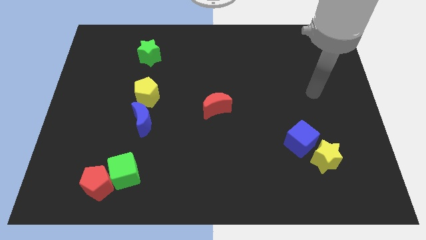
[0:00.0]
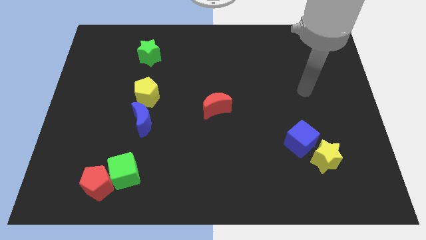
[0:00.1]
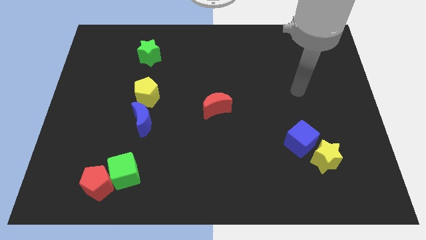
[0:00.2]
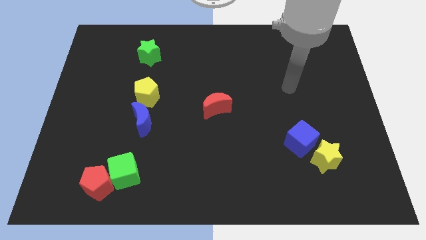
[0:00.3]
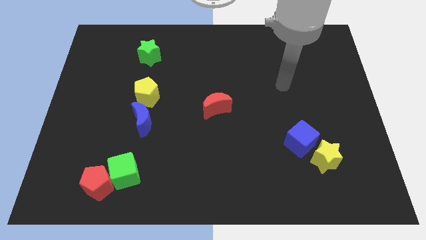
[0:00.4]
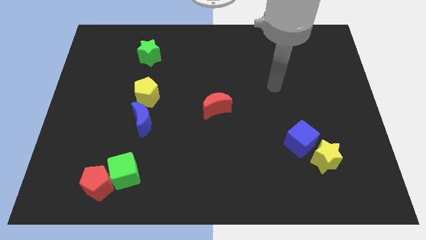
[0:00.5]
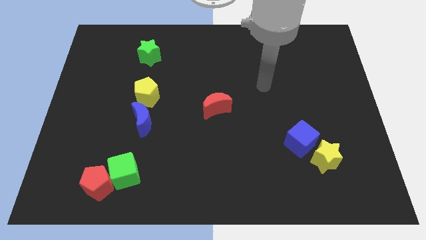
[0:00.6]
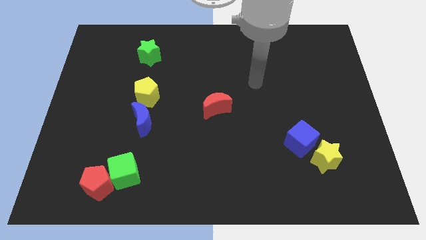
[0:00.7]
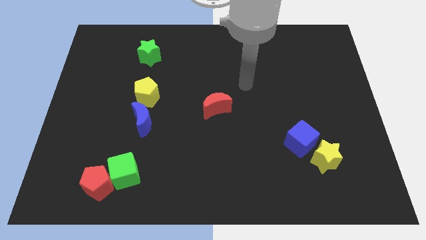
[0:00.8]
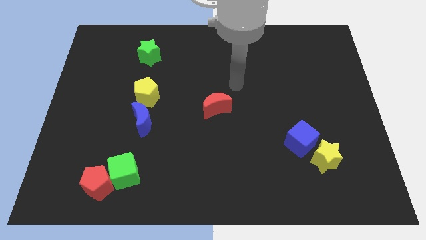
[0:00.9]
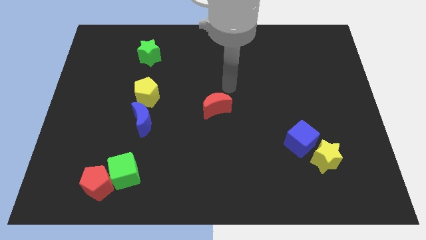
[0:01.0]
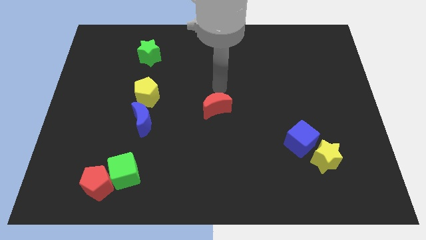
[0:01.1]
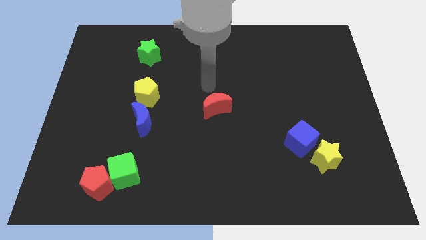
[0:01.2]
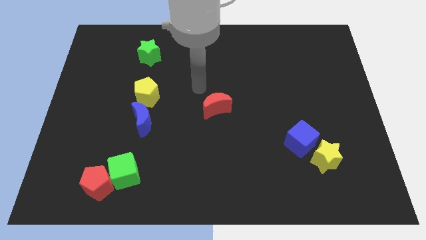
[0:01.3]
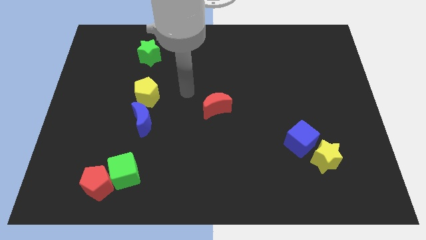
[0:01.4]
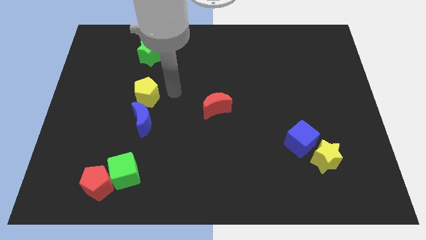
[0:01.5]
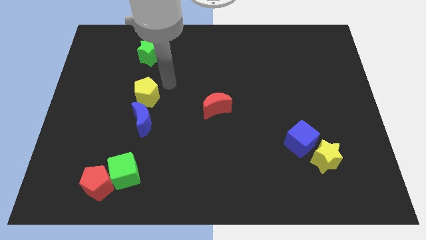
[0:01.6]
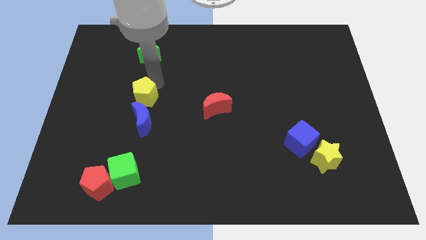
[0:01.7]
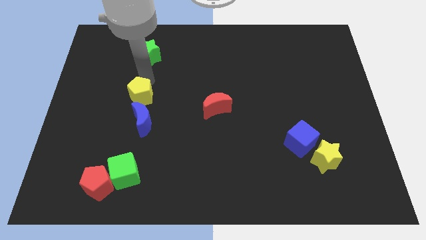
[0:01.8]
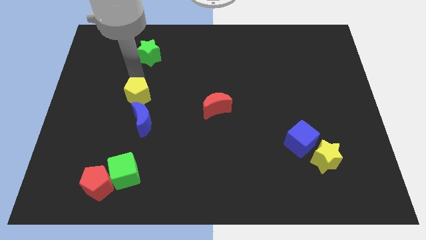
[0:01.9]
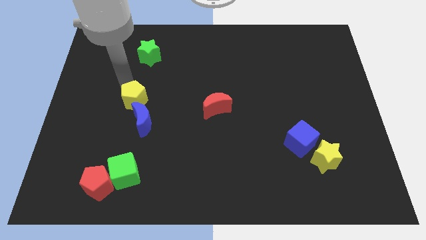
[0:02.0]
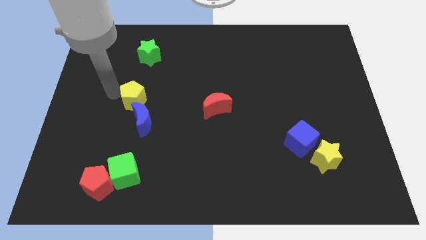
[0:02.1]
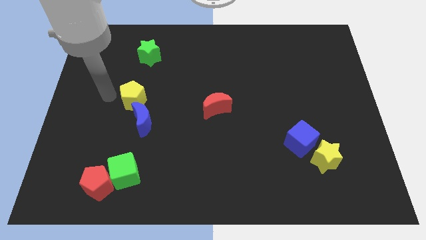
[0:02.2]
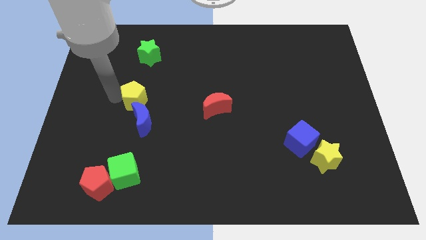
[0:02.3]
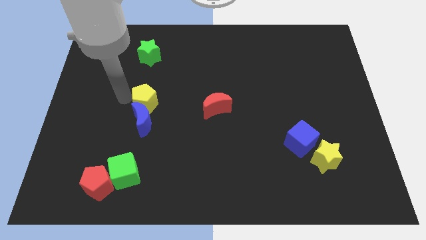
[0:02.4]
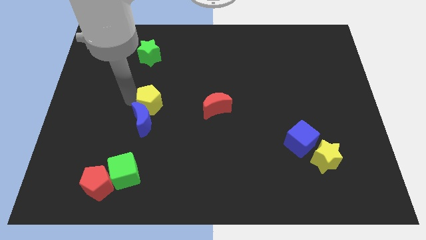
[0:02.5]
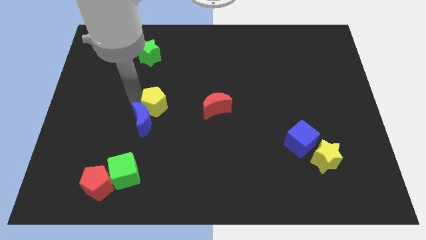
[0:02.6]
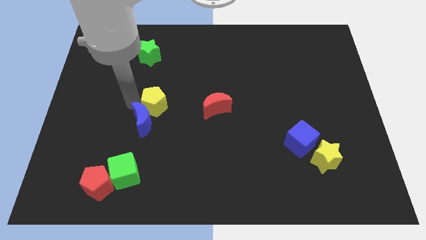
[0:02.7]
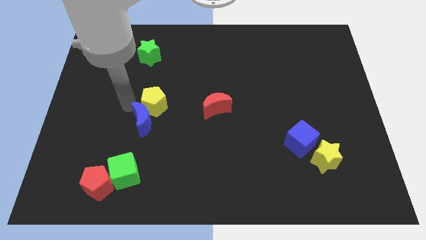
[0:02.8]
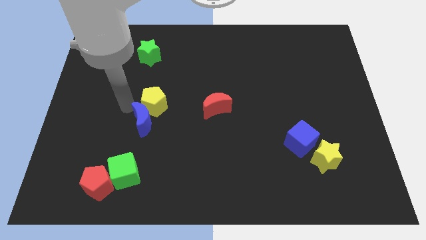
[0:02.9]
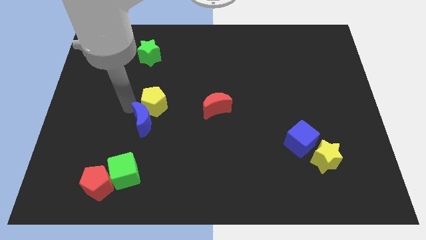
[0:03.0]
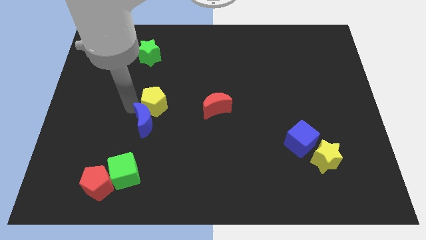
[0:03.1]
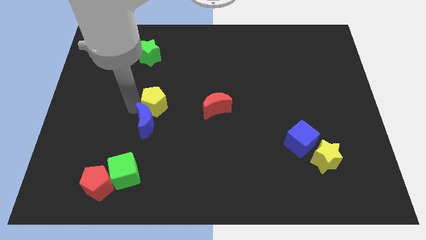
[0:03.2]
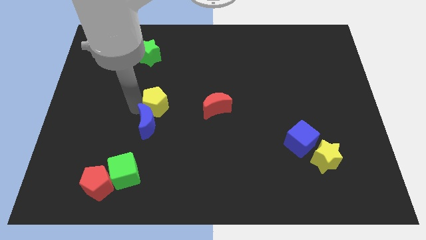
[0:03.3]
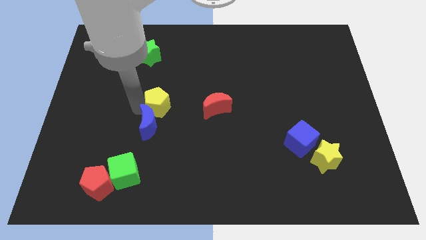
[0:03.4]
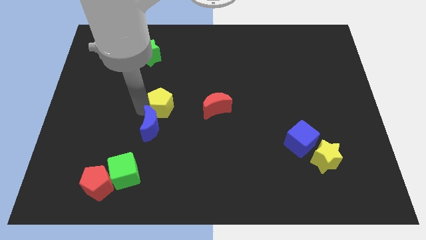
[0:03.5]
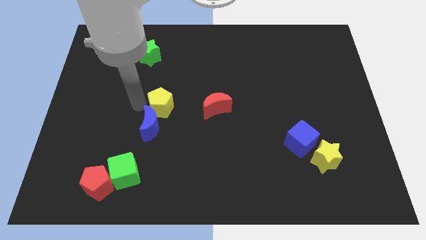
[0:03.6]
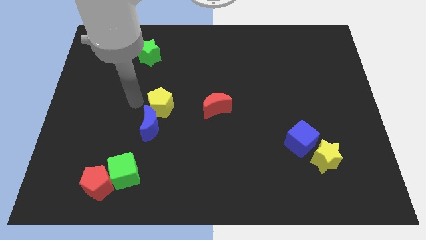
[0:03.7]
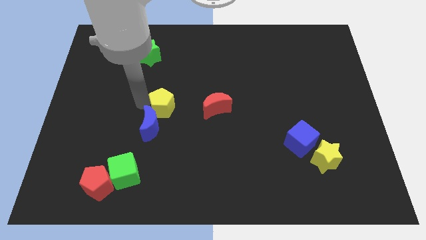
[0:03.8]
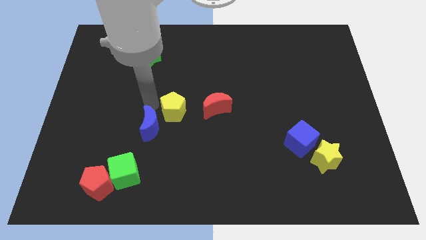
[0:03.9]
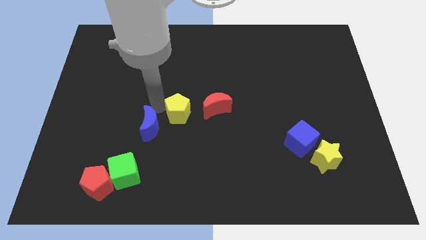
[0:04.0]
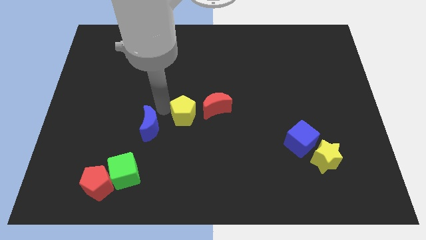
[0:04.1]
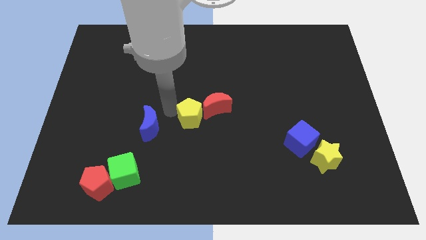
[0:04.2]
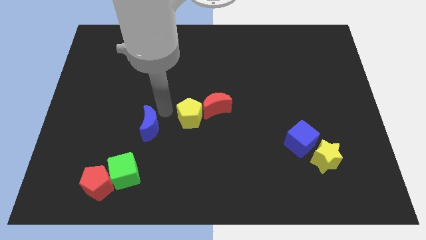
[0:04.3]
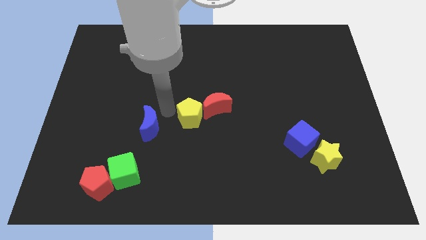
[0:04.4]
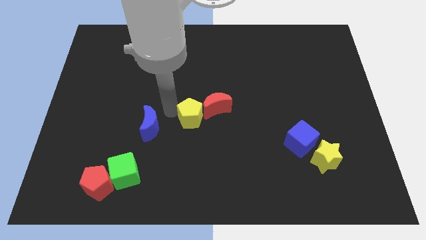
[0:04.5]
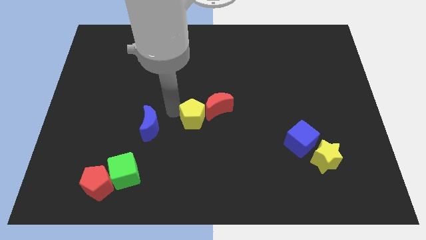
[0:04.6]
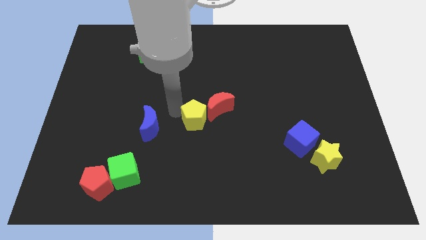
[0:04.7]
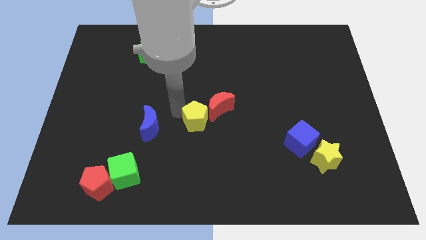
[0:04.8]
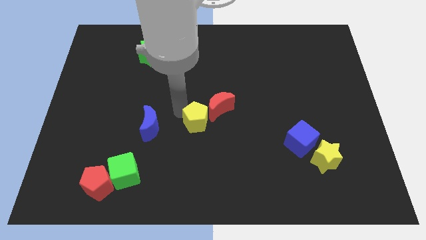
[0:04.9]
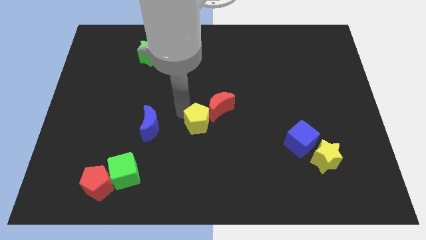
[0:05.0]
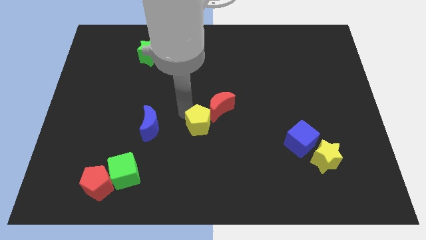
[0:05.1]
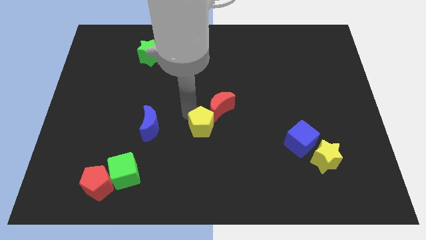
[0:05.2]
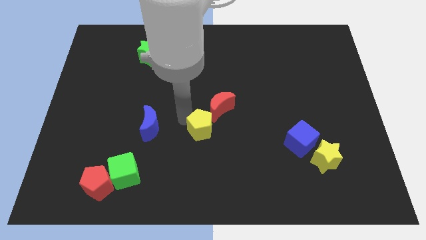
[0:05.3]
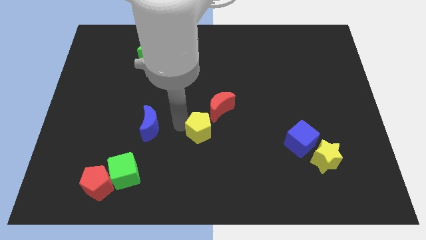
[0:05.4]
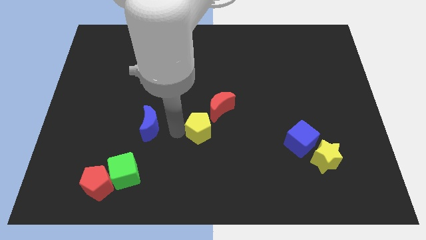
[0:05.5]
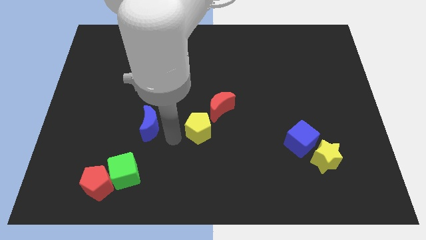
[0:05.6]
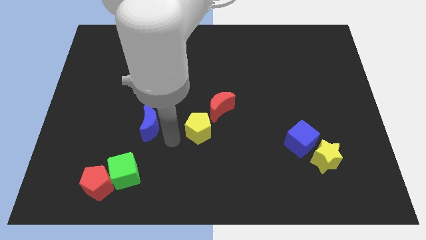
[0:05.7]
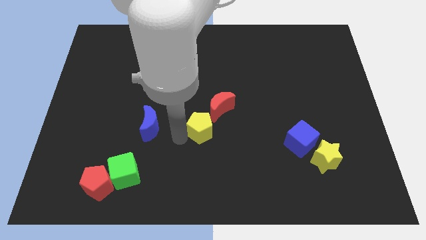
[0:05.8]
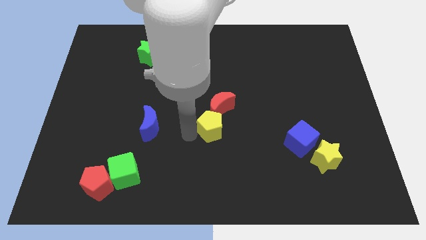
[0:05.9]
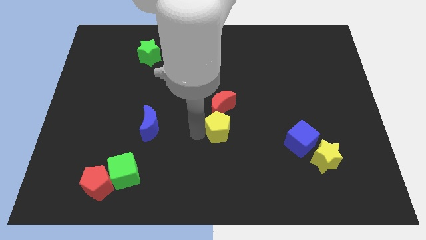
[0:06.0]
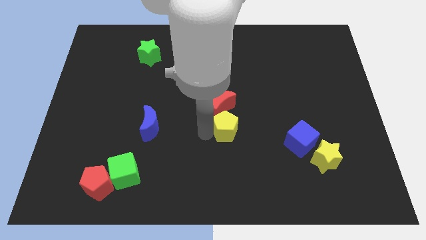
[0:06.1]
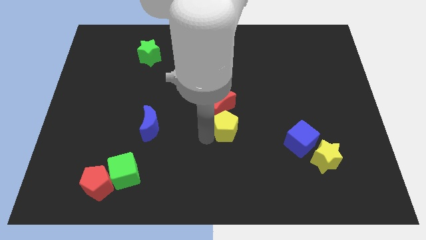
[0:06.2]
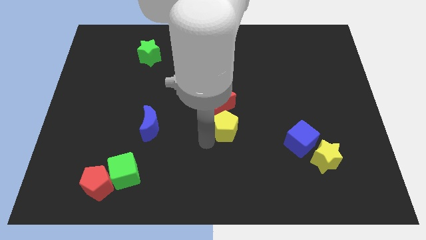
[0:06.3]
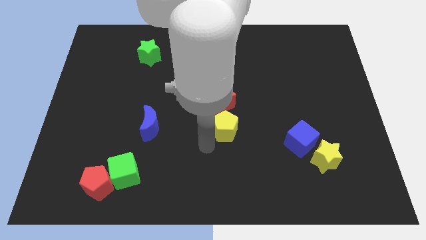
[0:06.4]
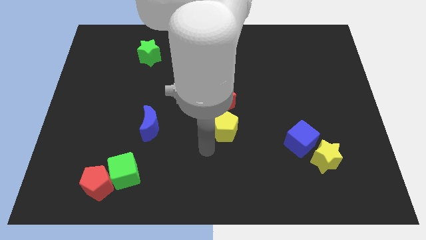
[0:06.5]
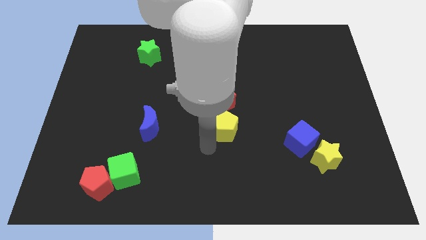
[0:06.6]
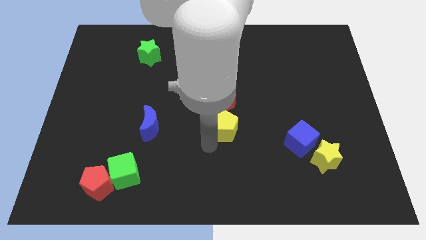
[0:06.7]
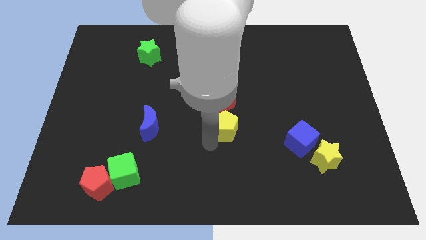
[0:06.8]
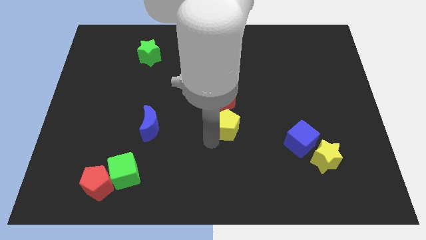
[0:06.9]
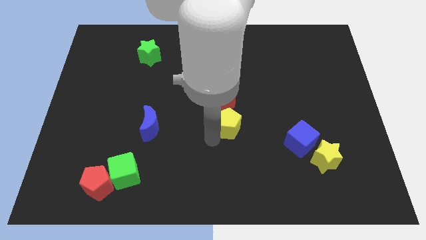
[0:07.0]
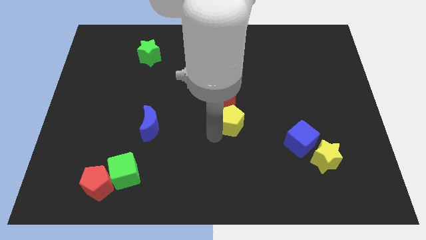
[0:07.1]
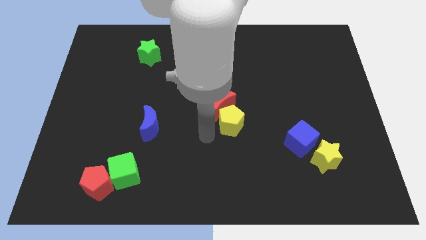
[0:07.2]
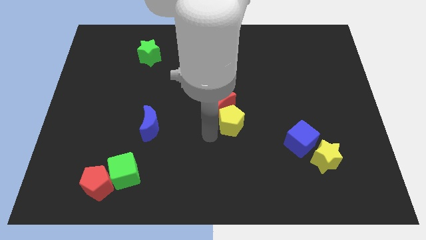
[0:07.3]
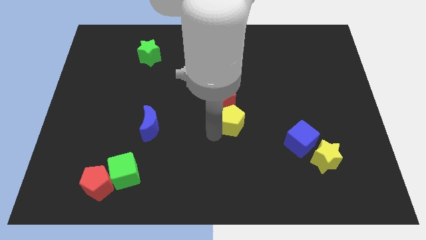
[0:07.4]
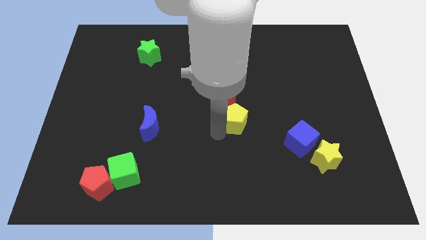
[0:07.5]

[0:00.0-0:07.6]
slide the yellow pentagon just right of the red moon

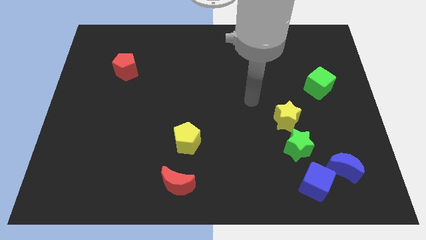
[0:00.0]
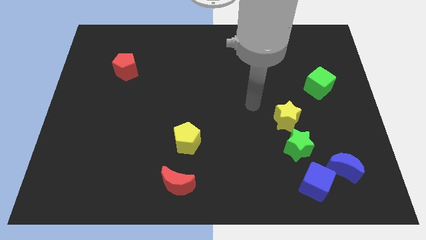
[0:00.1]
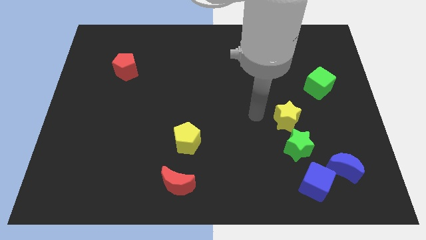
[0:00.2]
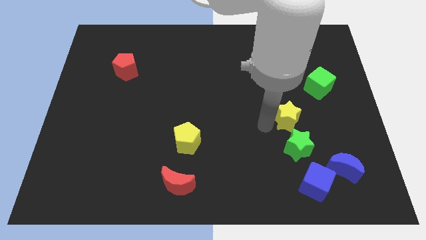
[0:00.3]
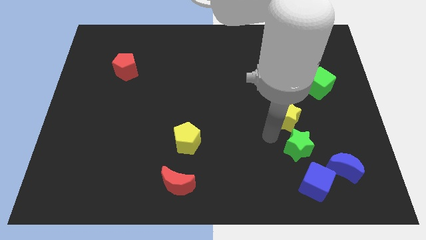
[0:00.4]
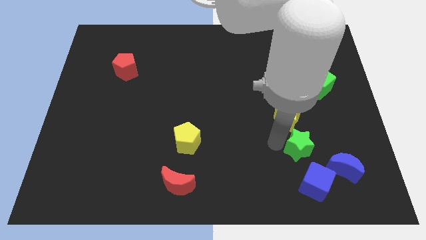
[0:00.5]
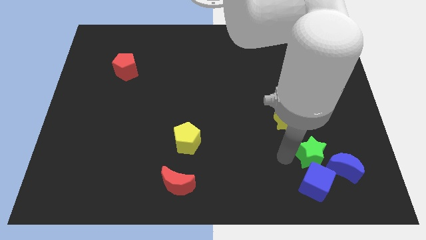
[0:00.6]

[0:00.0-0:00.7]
put the blue cube to the bottom left of the green star
